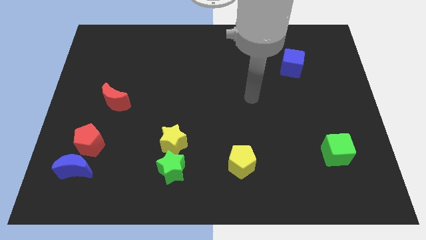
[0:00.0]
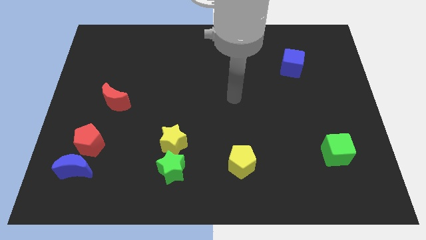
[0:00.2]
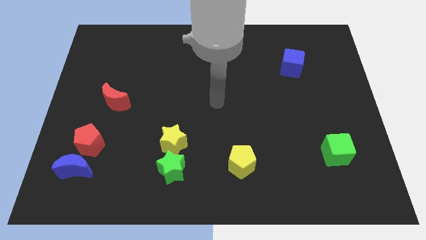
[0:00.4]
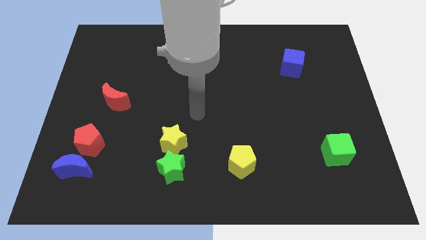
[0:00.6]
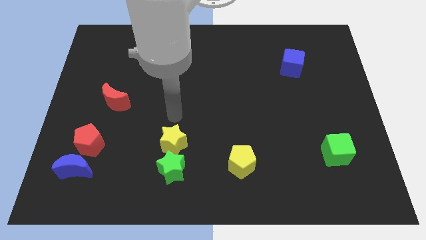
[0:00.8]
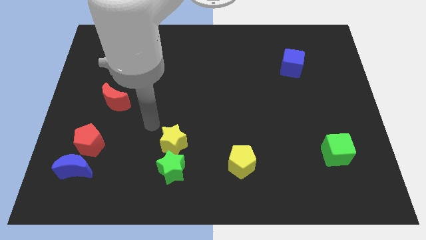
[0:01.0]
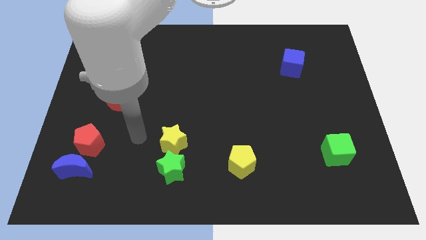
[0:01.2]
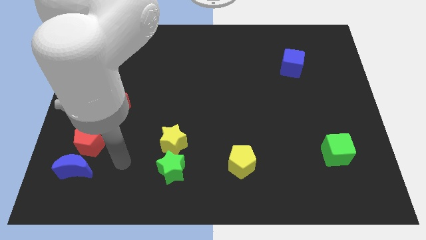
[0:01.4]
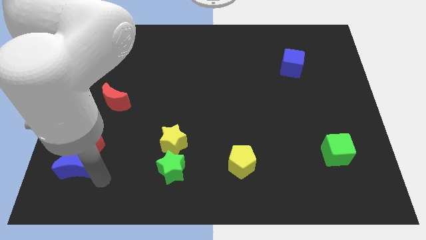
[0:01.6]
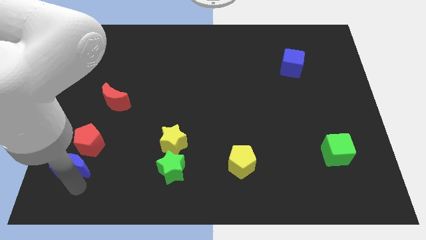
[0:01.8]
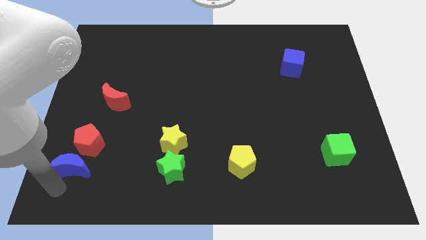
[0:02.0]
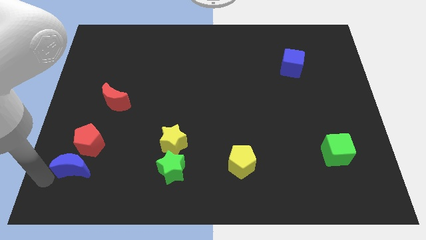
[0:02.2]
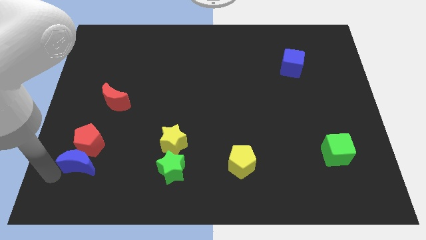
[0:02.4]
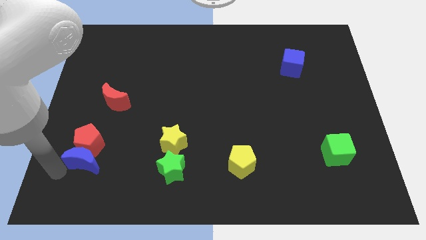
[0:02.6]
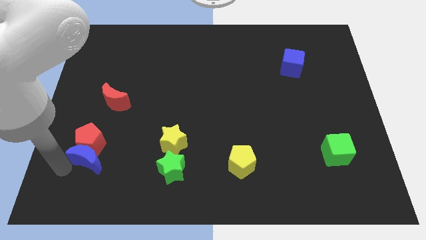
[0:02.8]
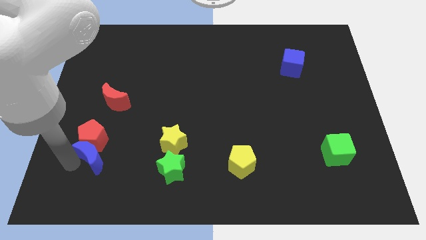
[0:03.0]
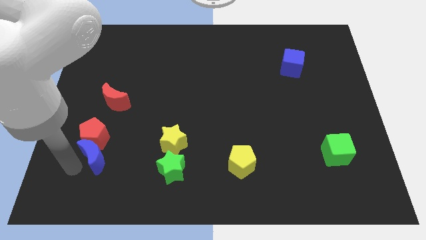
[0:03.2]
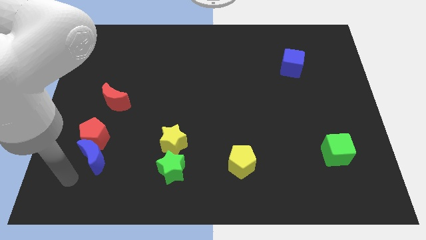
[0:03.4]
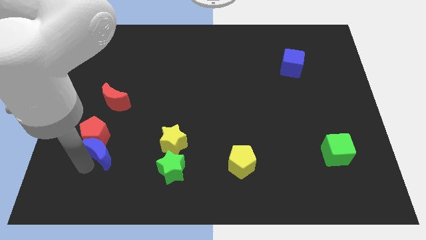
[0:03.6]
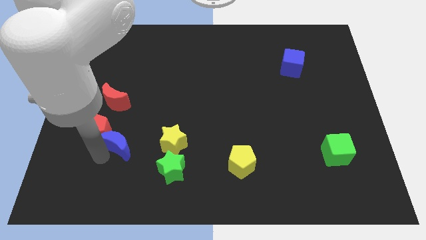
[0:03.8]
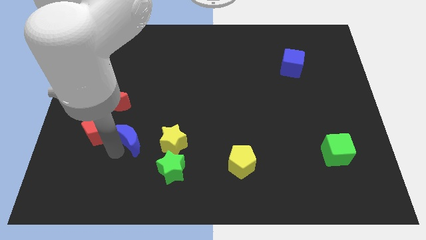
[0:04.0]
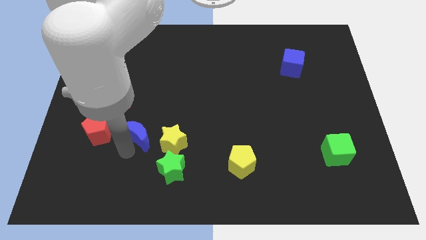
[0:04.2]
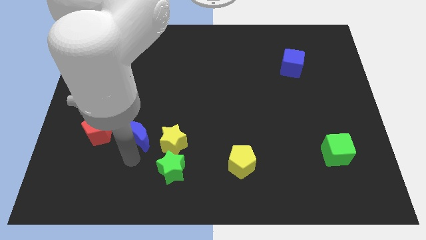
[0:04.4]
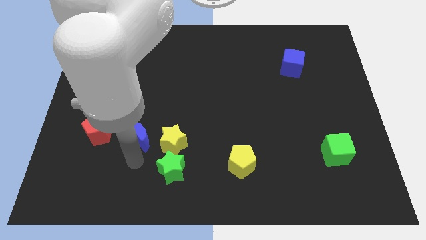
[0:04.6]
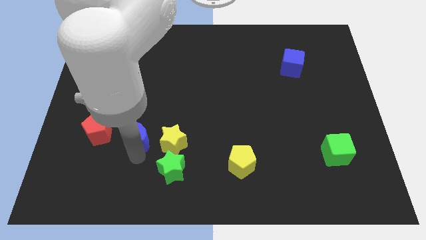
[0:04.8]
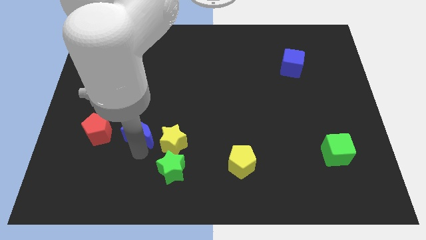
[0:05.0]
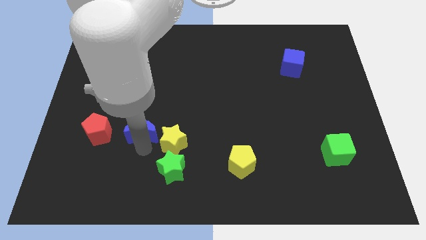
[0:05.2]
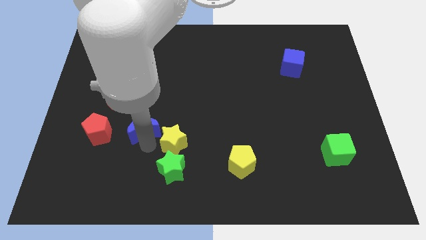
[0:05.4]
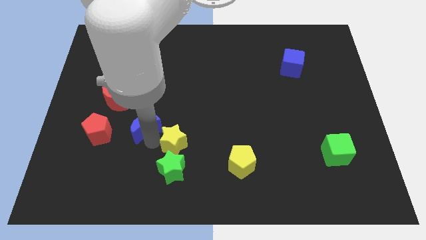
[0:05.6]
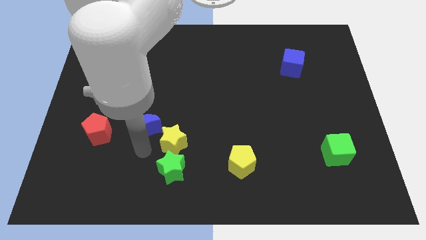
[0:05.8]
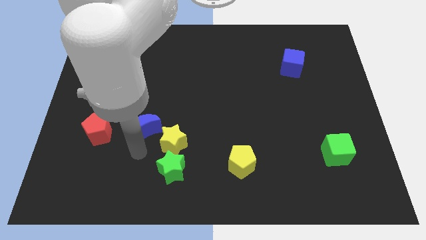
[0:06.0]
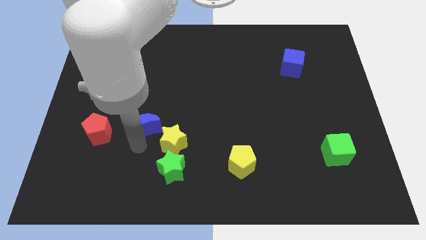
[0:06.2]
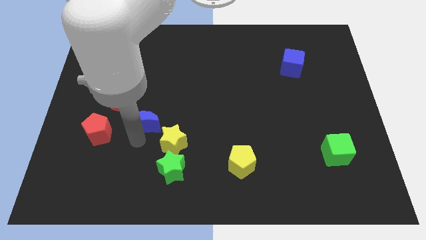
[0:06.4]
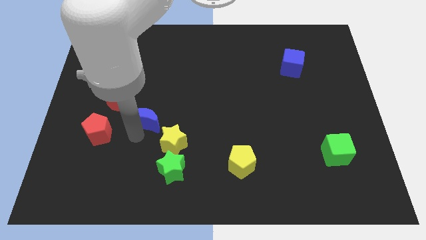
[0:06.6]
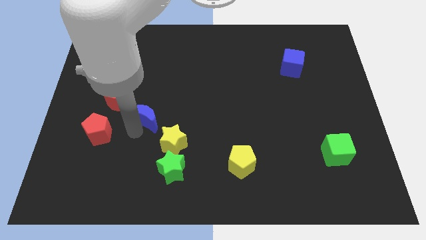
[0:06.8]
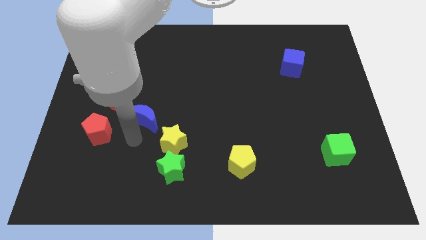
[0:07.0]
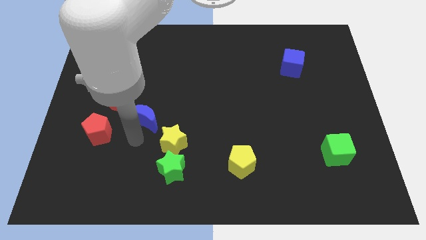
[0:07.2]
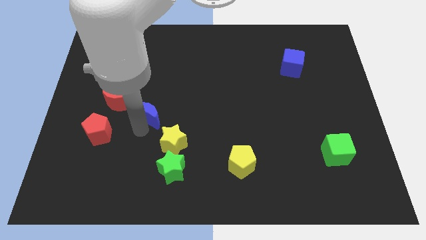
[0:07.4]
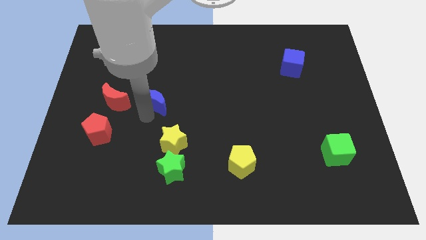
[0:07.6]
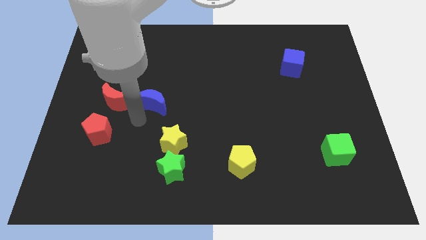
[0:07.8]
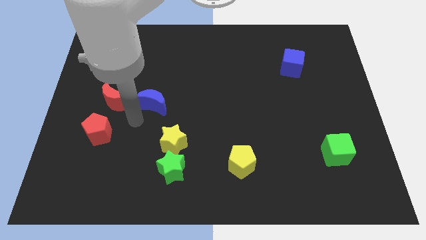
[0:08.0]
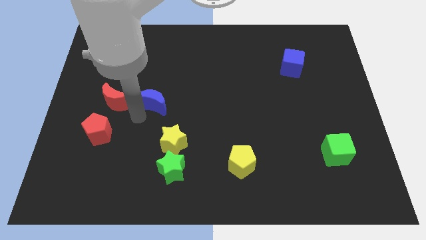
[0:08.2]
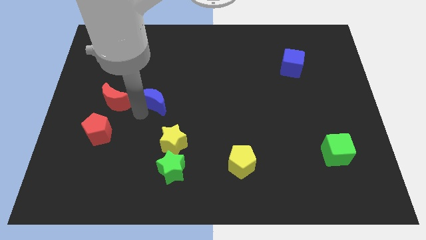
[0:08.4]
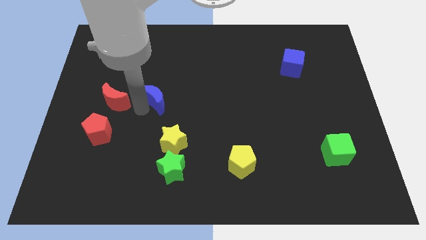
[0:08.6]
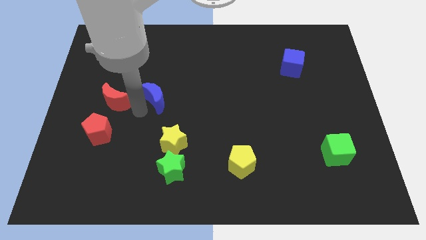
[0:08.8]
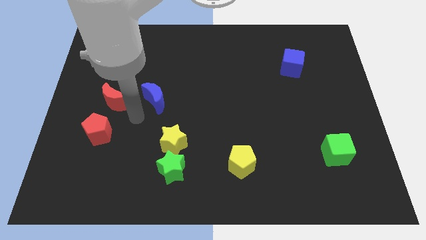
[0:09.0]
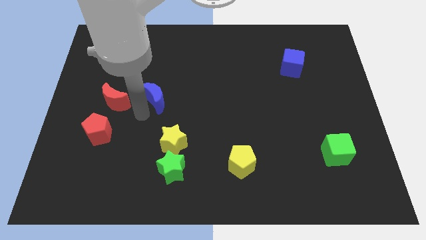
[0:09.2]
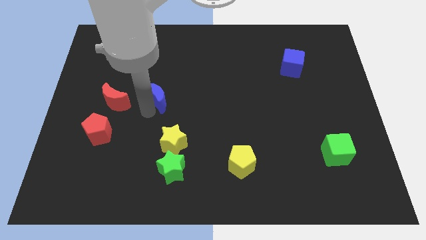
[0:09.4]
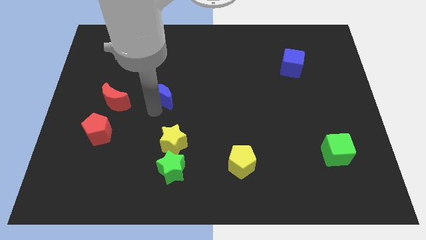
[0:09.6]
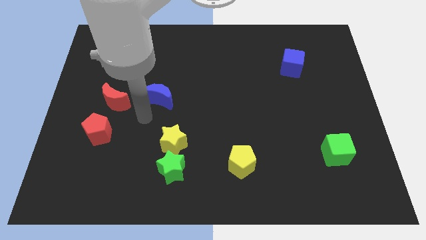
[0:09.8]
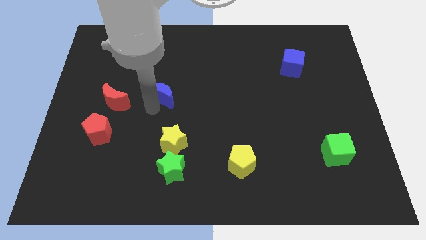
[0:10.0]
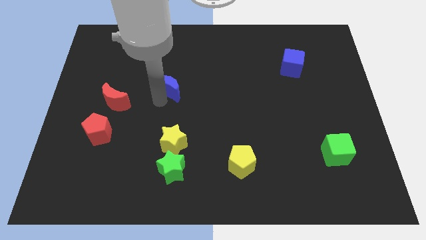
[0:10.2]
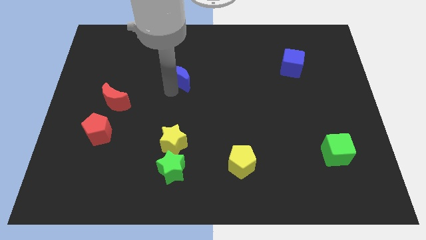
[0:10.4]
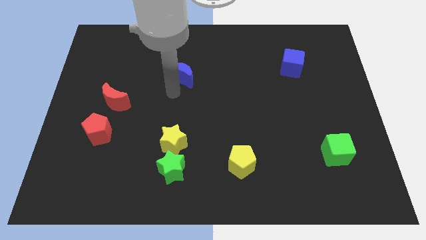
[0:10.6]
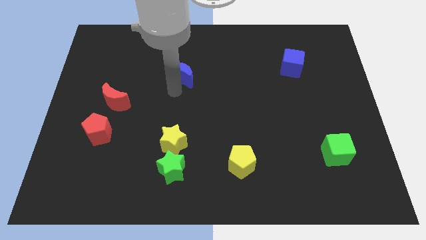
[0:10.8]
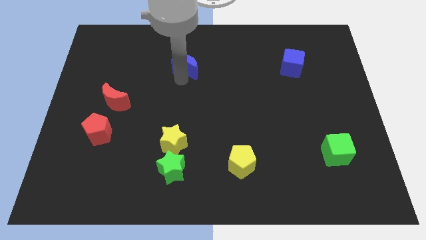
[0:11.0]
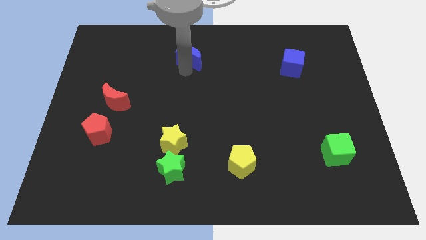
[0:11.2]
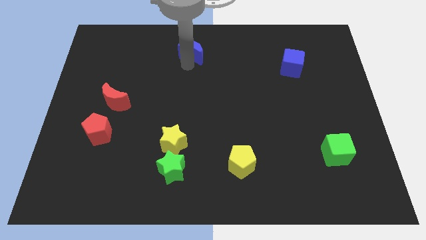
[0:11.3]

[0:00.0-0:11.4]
move the blue moon to the top

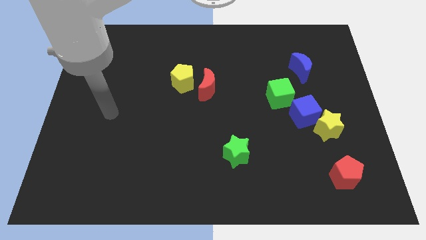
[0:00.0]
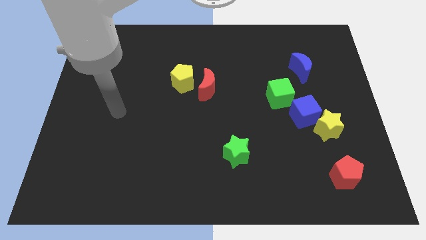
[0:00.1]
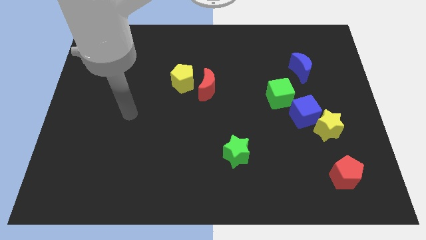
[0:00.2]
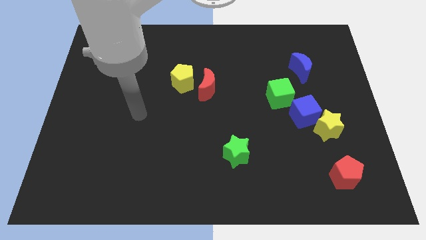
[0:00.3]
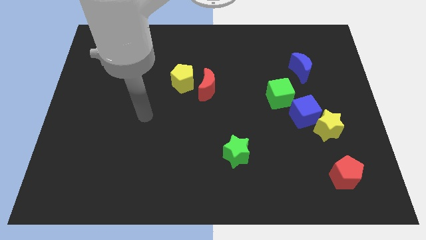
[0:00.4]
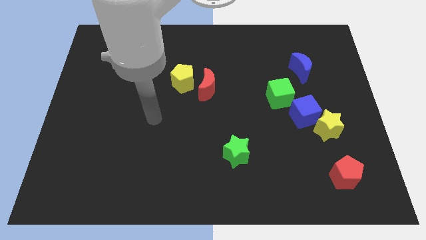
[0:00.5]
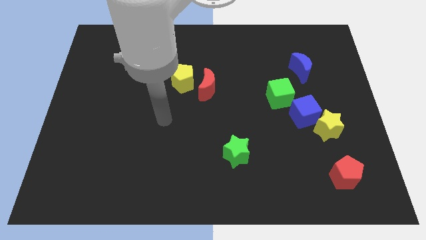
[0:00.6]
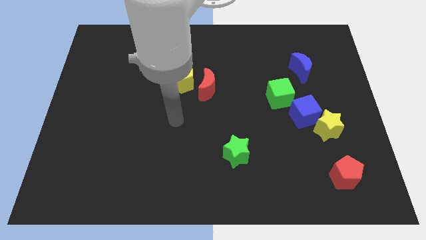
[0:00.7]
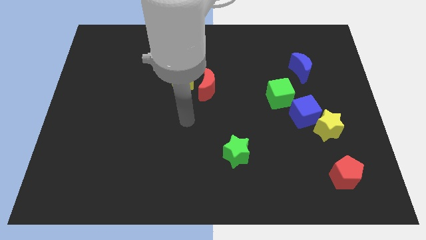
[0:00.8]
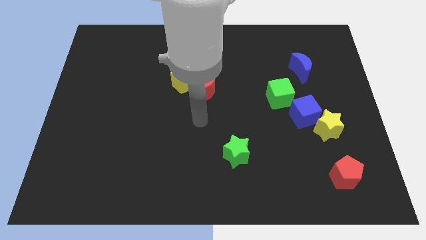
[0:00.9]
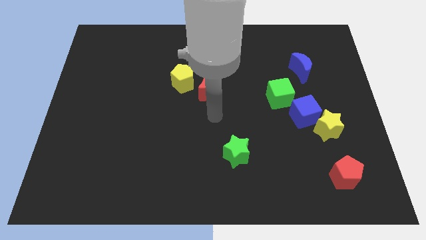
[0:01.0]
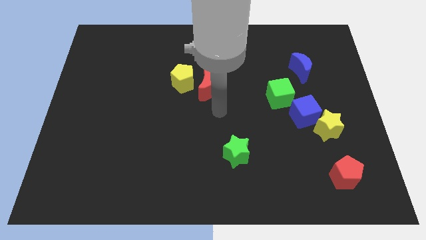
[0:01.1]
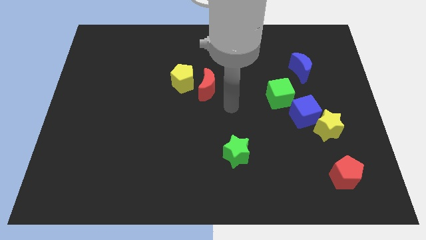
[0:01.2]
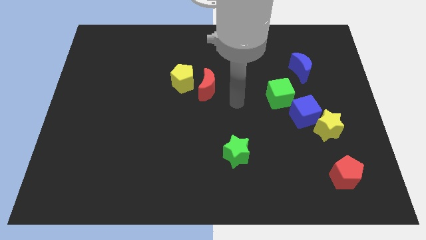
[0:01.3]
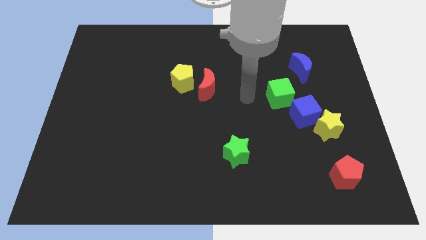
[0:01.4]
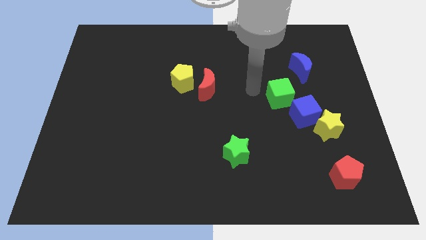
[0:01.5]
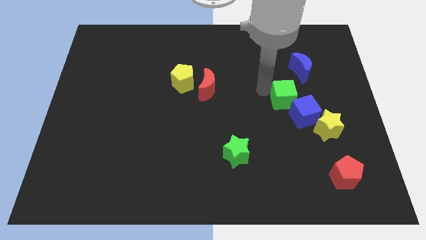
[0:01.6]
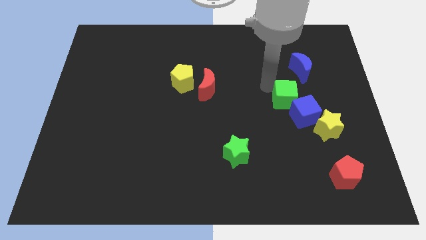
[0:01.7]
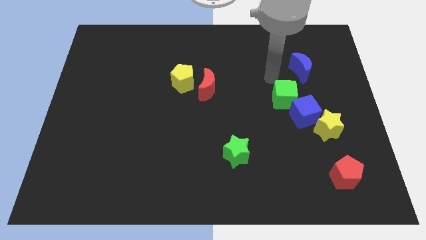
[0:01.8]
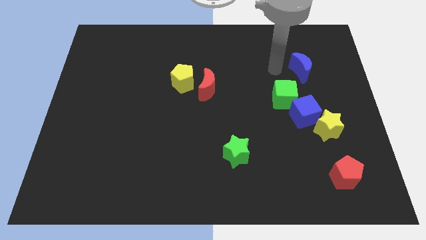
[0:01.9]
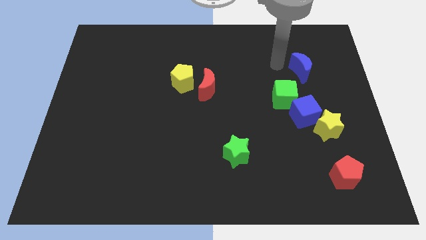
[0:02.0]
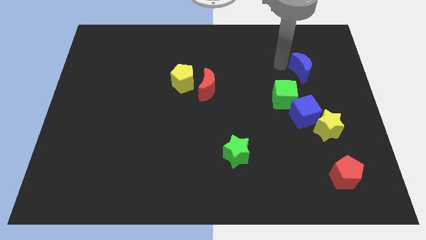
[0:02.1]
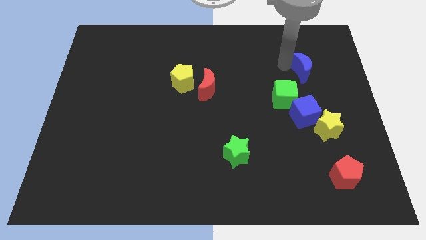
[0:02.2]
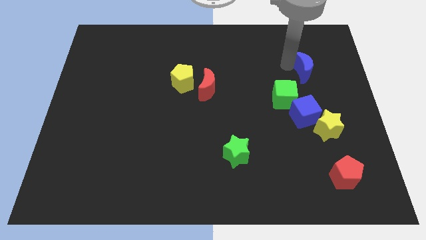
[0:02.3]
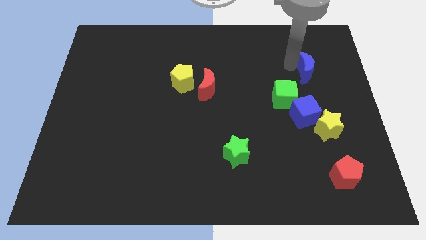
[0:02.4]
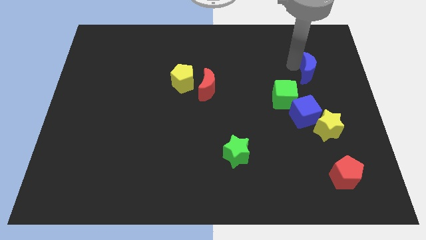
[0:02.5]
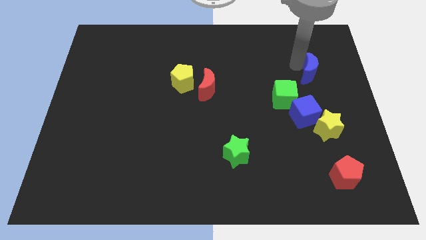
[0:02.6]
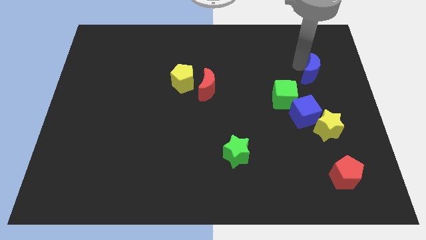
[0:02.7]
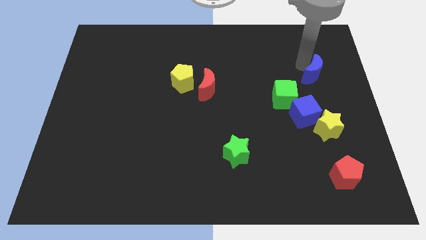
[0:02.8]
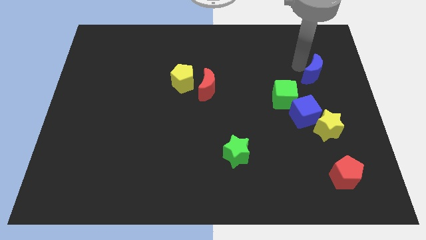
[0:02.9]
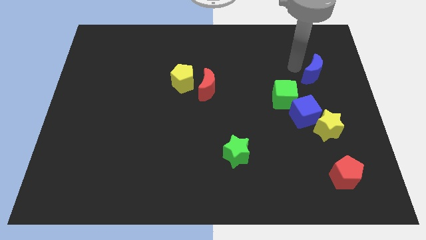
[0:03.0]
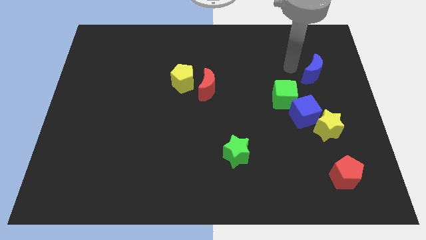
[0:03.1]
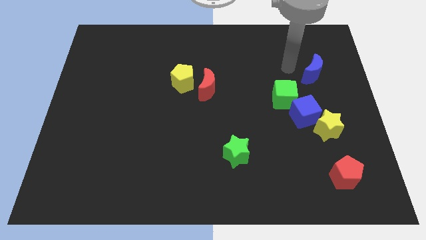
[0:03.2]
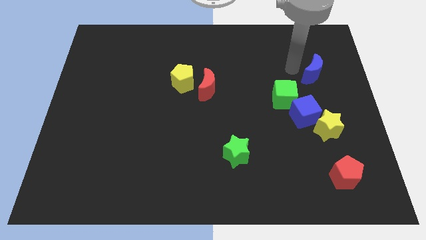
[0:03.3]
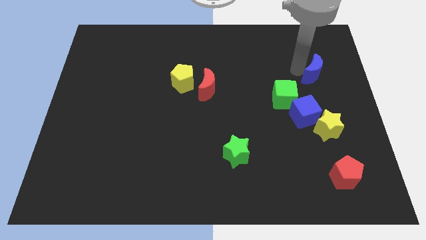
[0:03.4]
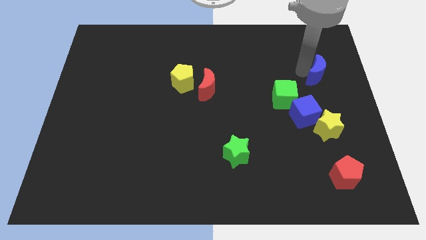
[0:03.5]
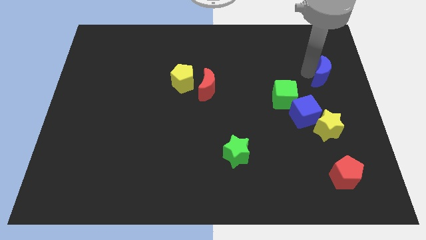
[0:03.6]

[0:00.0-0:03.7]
move the blue moon to the center right
